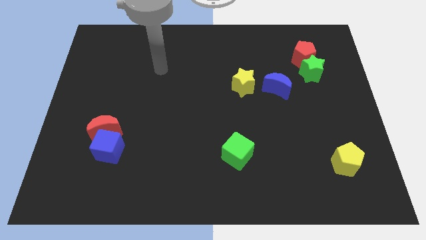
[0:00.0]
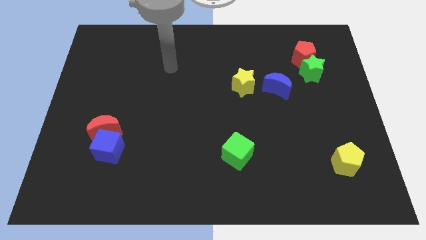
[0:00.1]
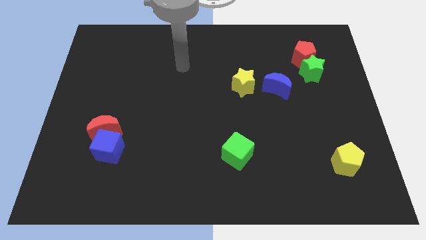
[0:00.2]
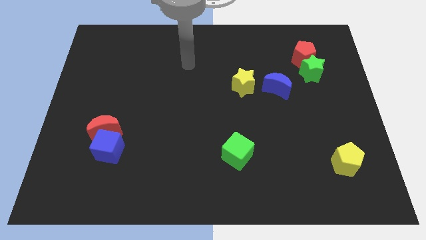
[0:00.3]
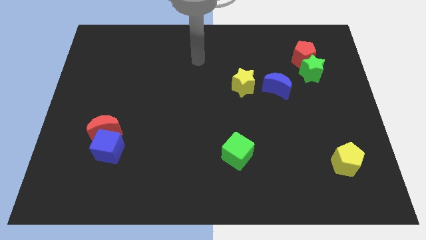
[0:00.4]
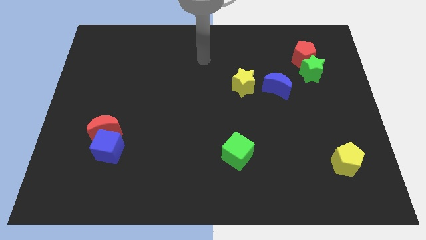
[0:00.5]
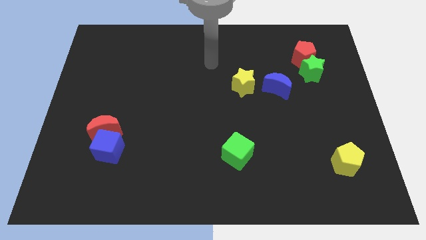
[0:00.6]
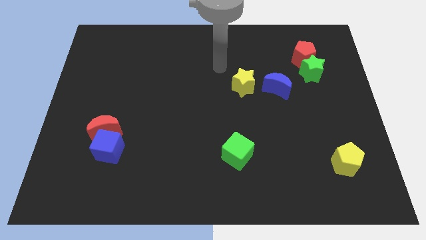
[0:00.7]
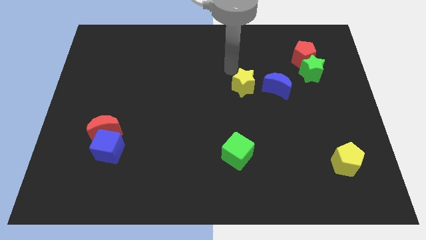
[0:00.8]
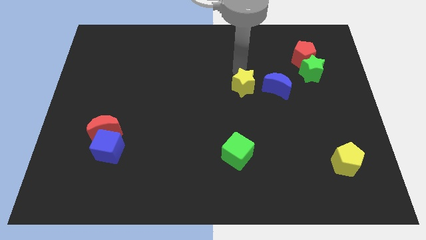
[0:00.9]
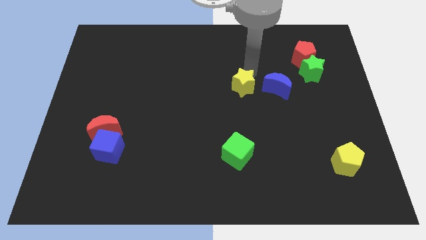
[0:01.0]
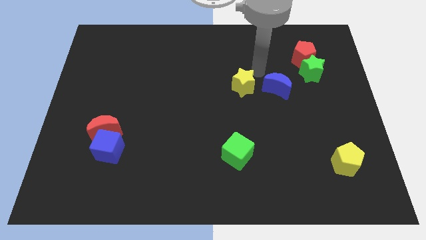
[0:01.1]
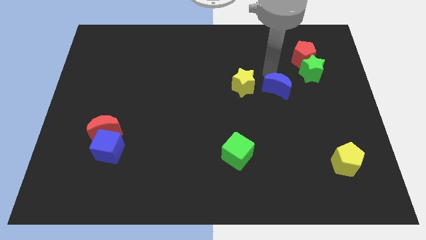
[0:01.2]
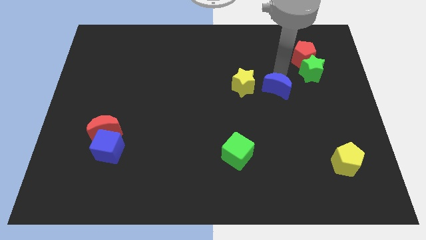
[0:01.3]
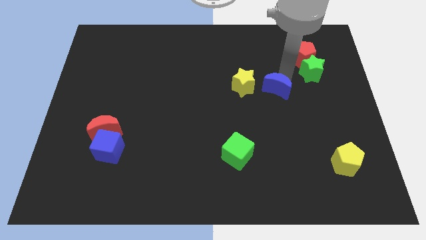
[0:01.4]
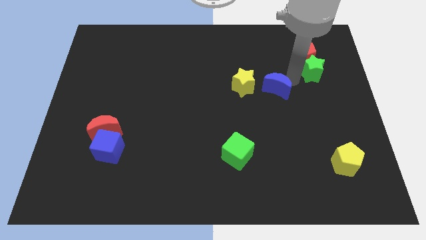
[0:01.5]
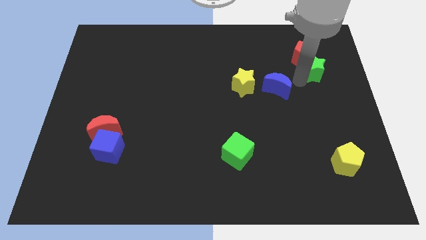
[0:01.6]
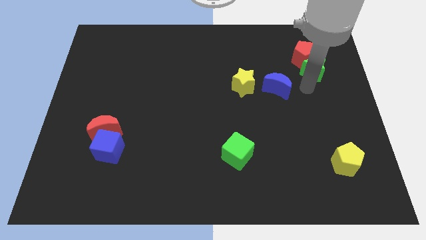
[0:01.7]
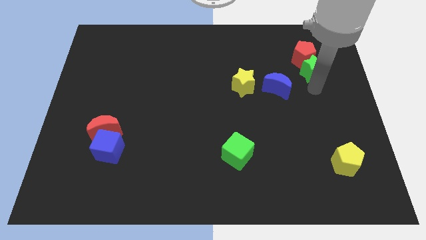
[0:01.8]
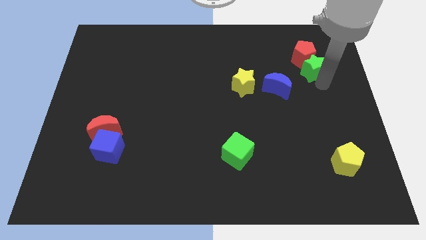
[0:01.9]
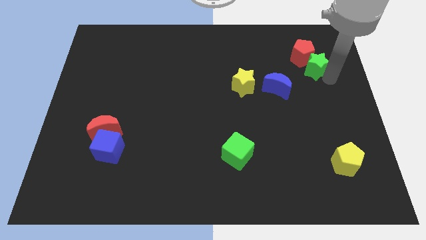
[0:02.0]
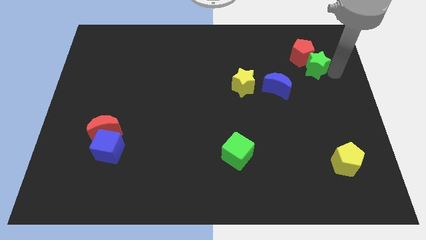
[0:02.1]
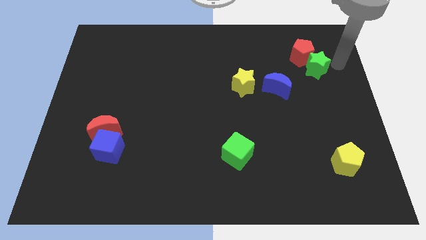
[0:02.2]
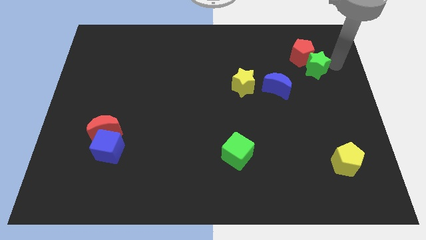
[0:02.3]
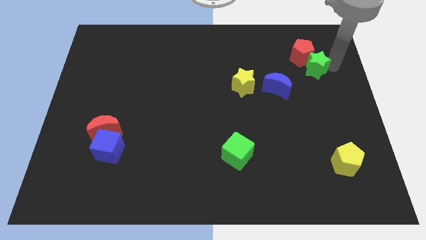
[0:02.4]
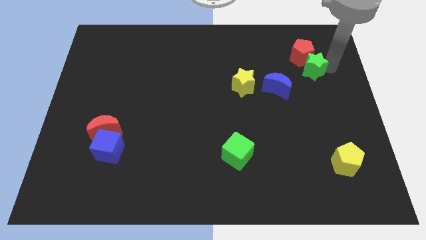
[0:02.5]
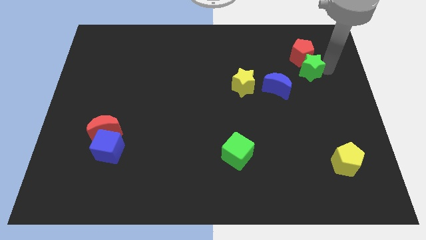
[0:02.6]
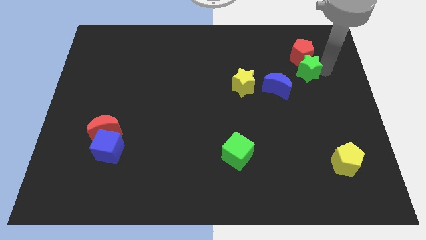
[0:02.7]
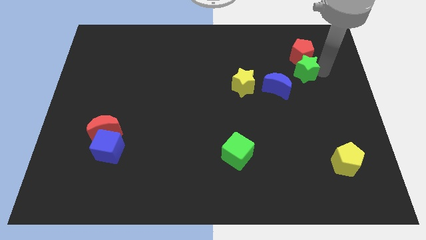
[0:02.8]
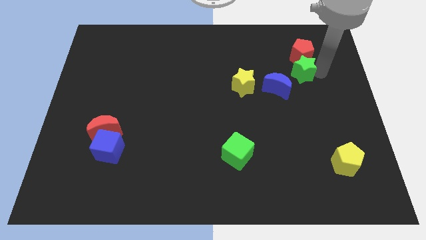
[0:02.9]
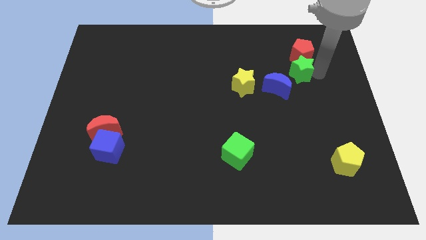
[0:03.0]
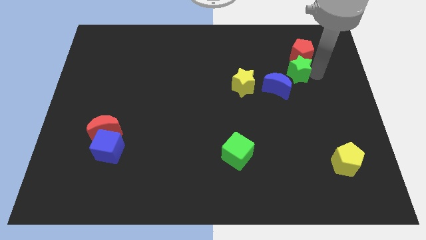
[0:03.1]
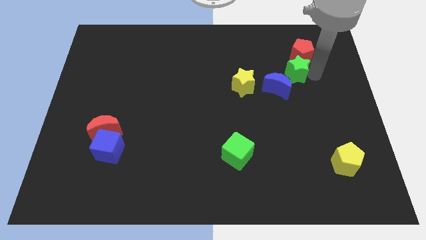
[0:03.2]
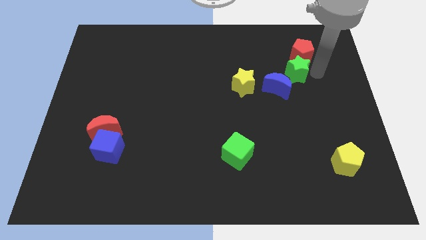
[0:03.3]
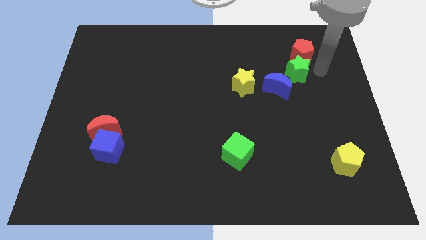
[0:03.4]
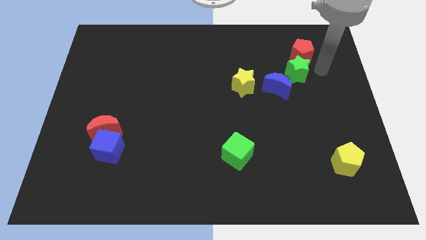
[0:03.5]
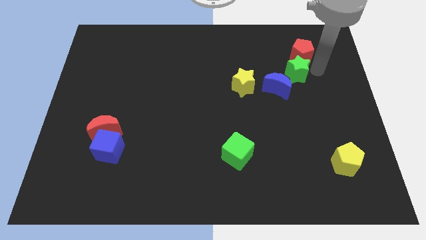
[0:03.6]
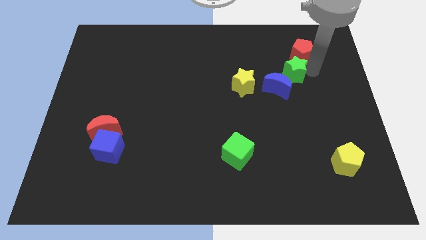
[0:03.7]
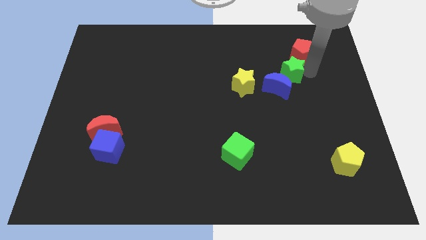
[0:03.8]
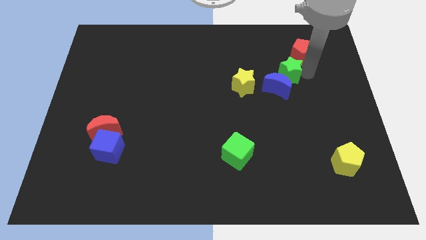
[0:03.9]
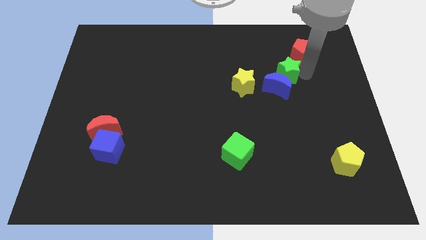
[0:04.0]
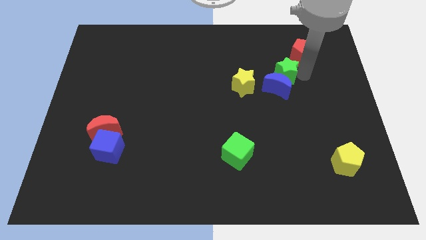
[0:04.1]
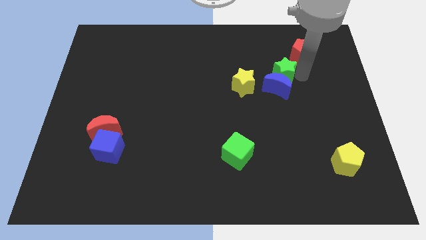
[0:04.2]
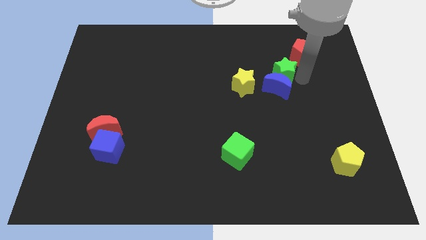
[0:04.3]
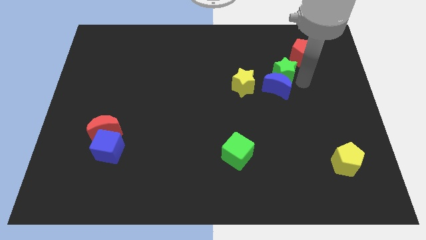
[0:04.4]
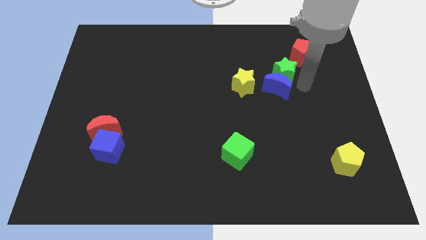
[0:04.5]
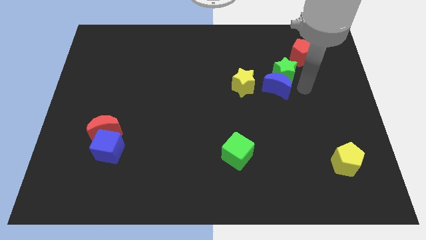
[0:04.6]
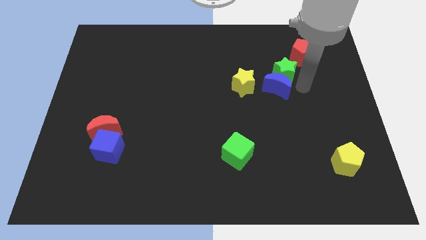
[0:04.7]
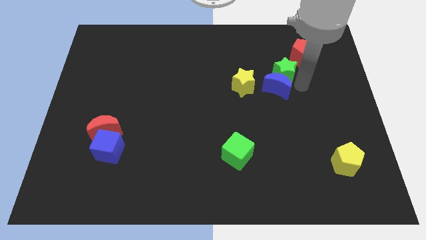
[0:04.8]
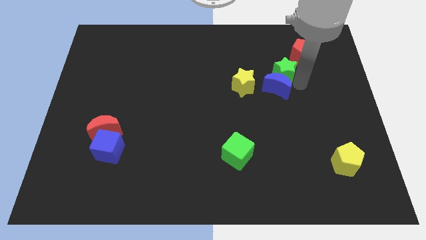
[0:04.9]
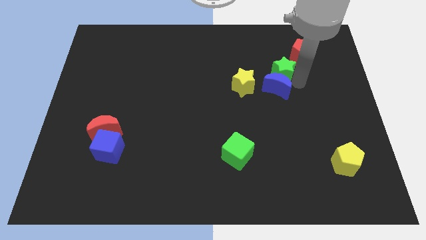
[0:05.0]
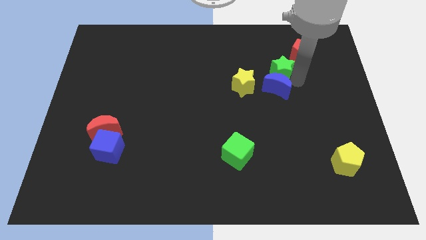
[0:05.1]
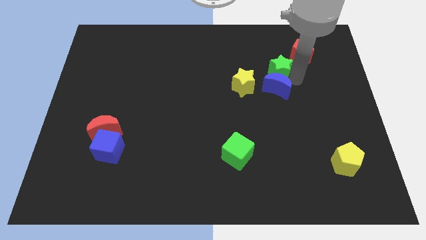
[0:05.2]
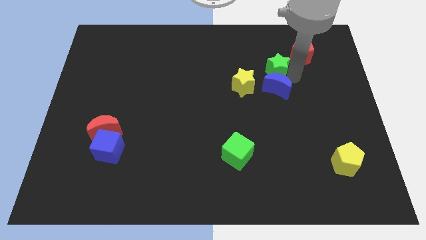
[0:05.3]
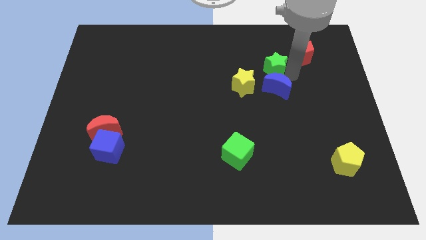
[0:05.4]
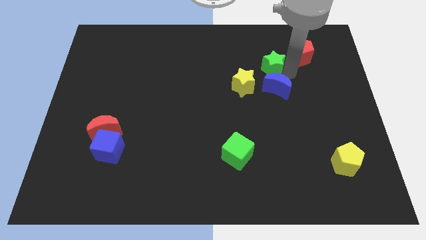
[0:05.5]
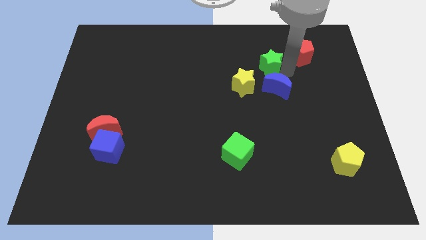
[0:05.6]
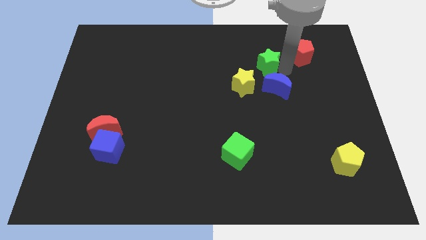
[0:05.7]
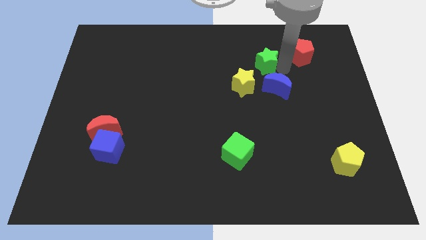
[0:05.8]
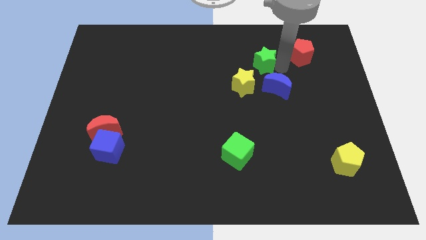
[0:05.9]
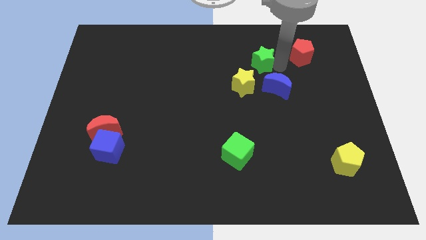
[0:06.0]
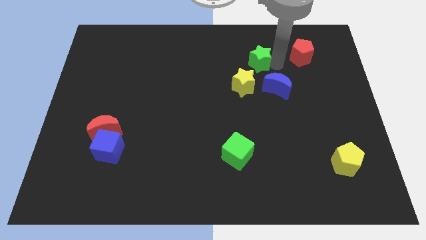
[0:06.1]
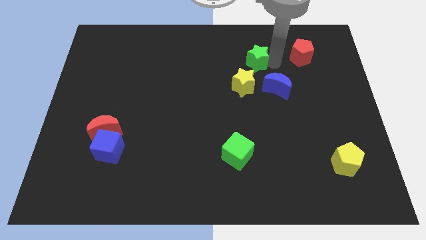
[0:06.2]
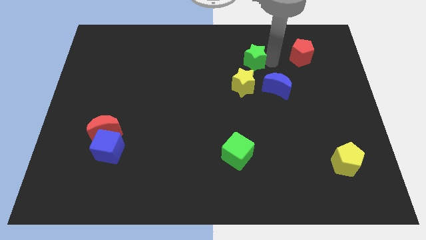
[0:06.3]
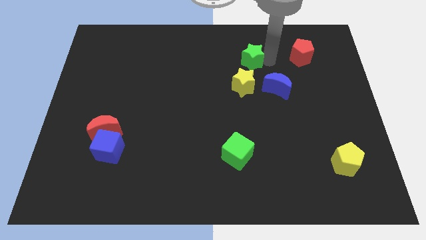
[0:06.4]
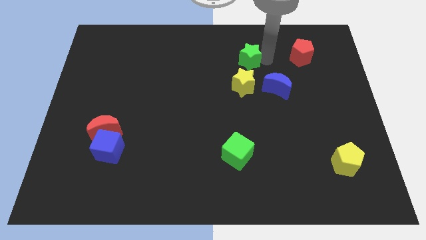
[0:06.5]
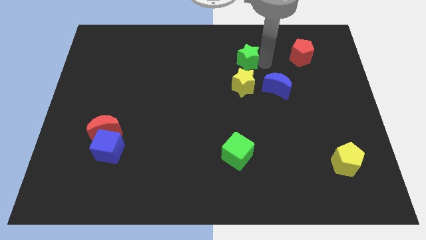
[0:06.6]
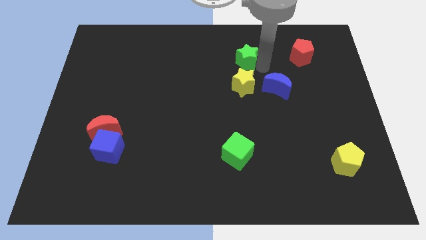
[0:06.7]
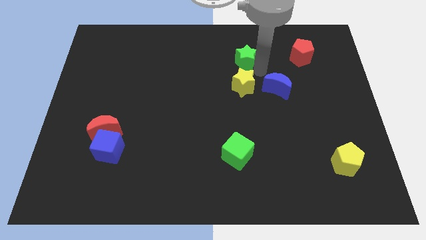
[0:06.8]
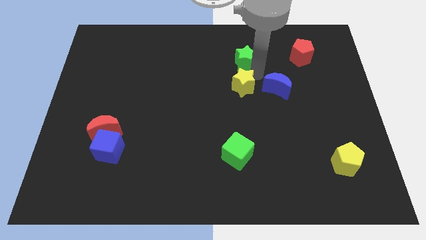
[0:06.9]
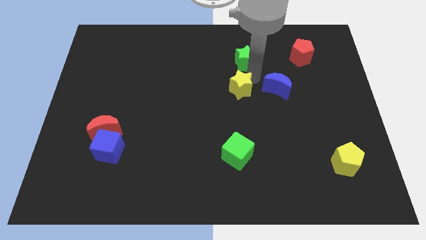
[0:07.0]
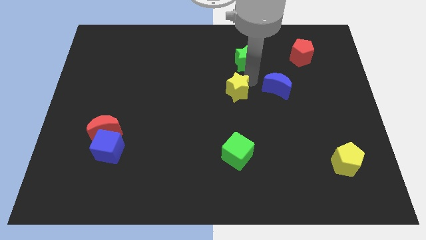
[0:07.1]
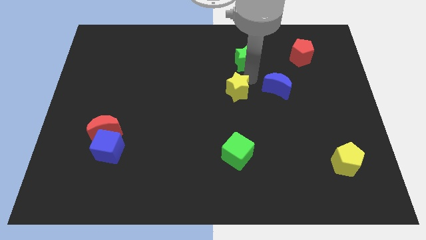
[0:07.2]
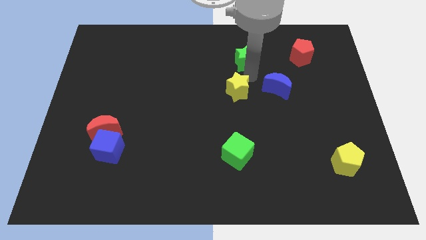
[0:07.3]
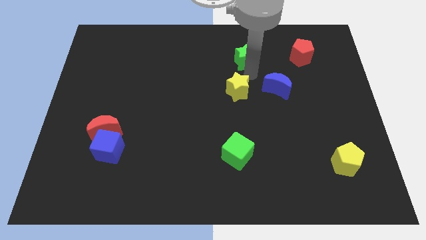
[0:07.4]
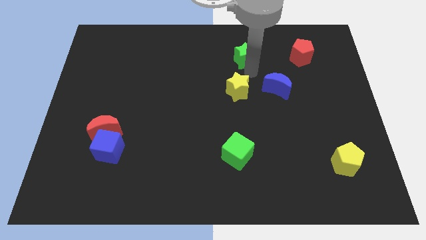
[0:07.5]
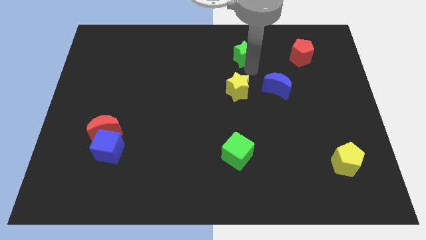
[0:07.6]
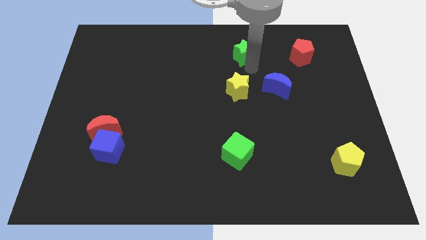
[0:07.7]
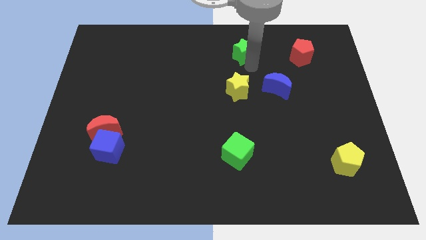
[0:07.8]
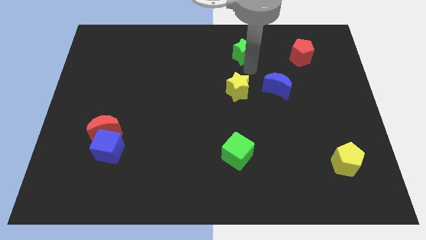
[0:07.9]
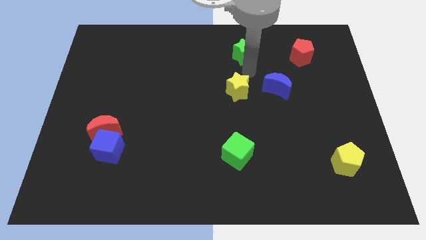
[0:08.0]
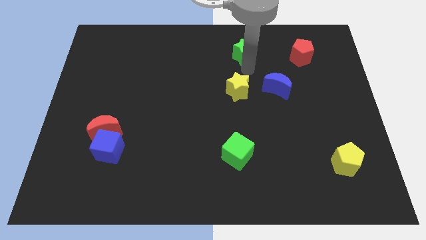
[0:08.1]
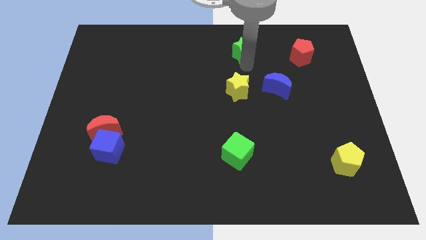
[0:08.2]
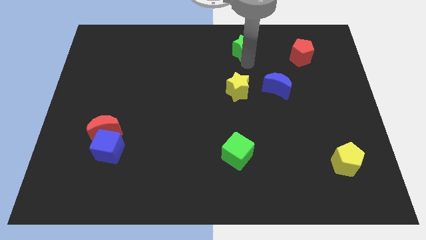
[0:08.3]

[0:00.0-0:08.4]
move the green star to the towards your base
